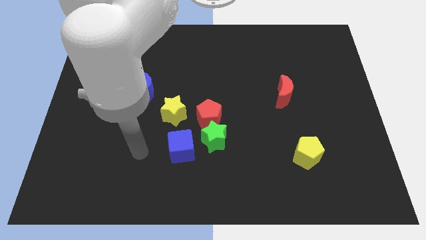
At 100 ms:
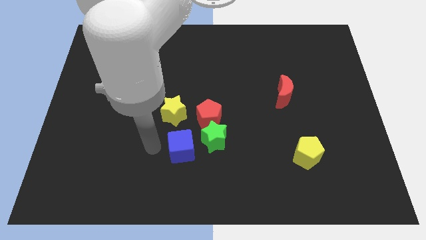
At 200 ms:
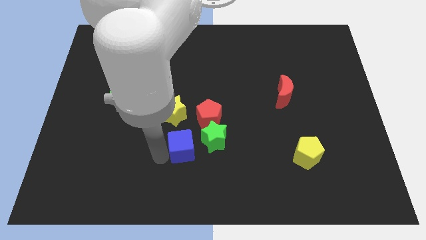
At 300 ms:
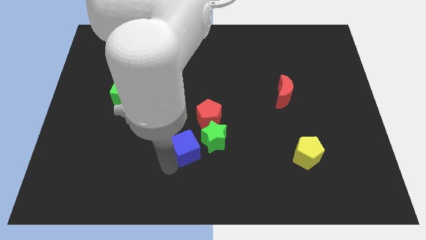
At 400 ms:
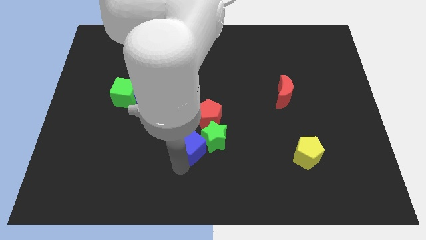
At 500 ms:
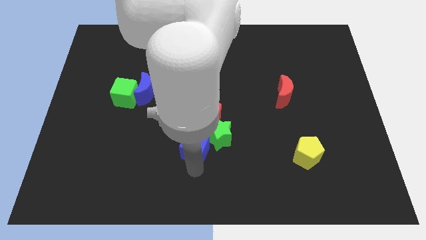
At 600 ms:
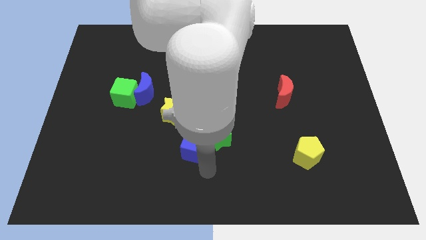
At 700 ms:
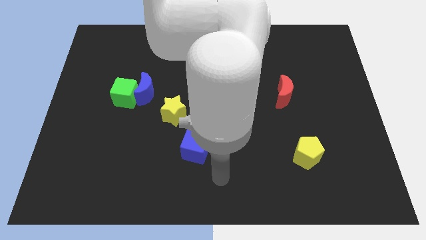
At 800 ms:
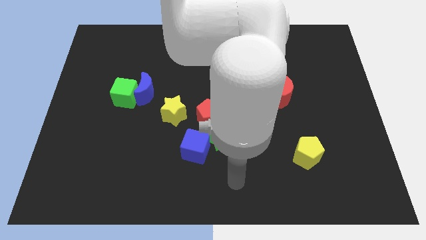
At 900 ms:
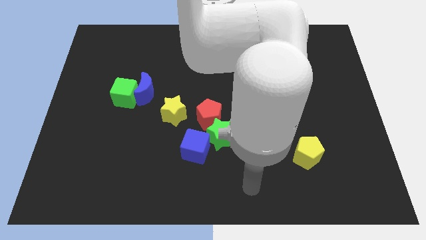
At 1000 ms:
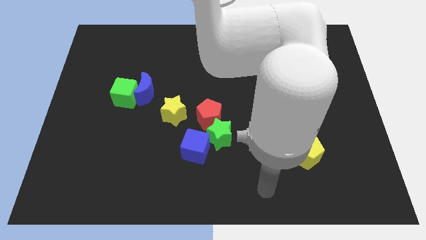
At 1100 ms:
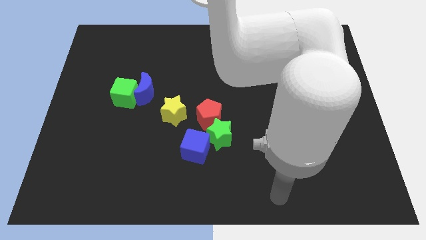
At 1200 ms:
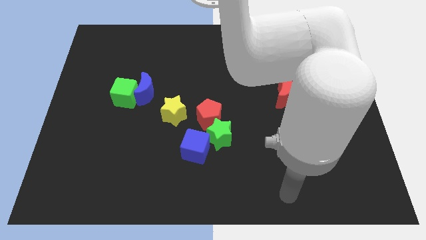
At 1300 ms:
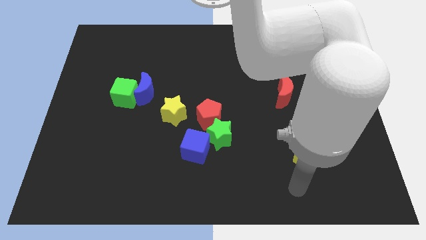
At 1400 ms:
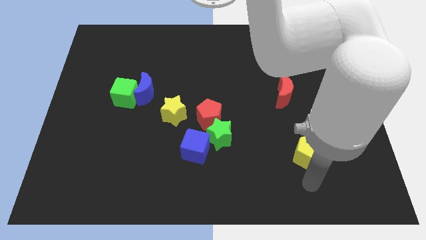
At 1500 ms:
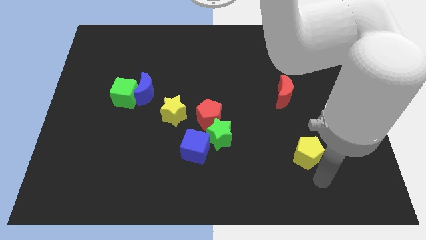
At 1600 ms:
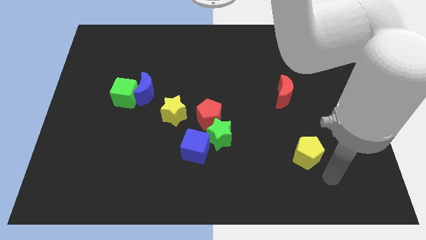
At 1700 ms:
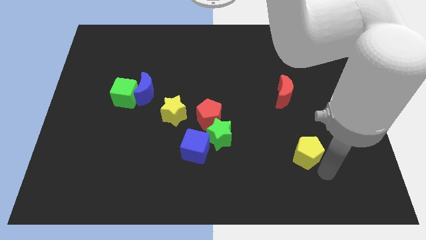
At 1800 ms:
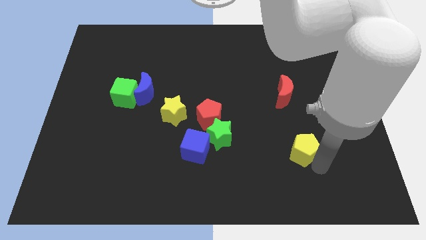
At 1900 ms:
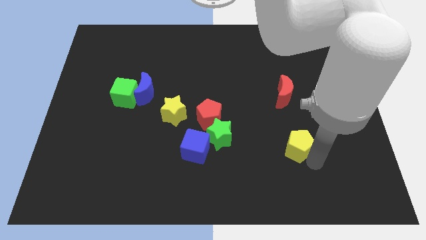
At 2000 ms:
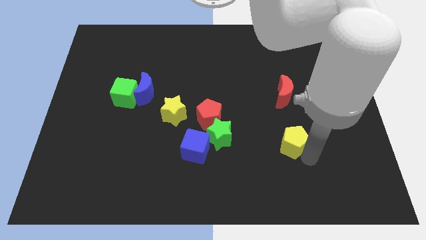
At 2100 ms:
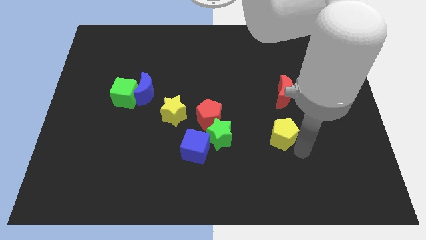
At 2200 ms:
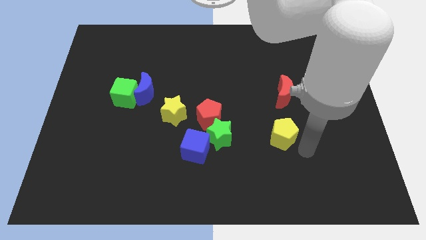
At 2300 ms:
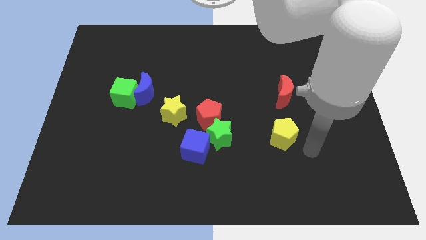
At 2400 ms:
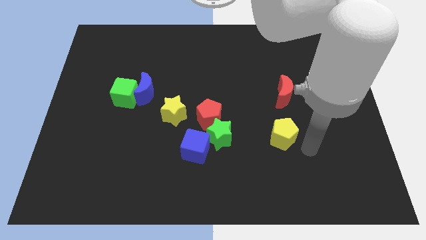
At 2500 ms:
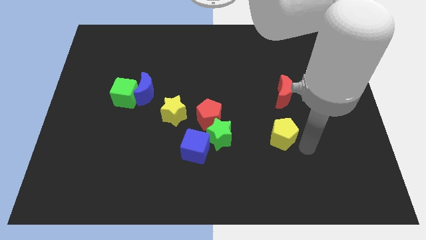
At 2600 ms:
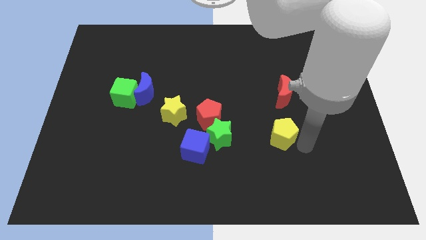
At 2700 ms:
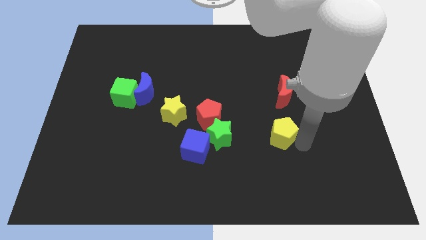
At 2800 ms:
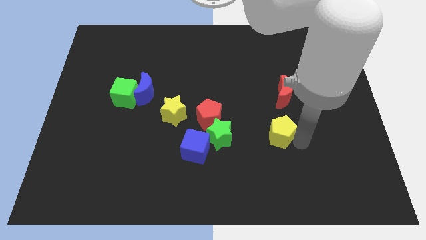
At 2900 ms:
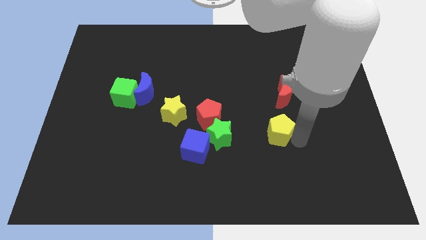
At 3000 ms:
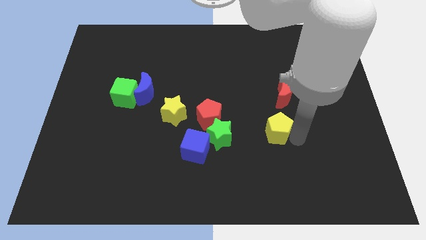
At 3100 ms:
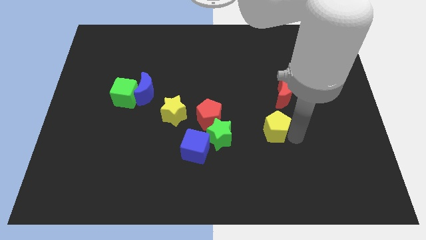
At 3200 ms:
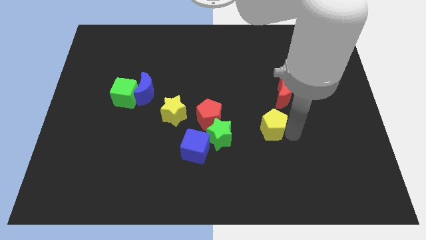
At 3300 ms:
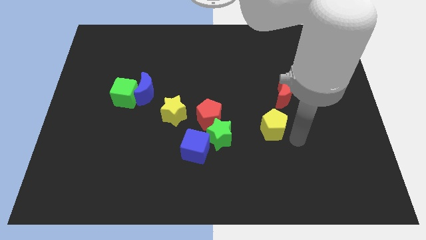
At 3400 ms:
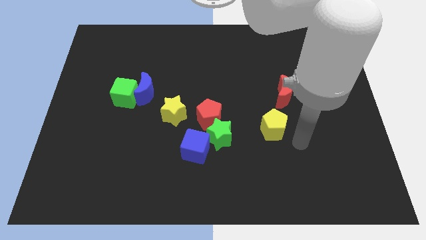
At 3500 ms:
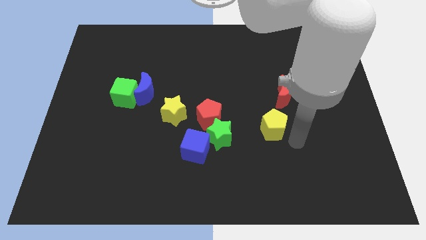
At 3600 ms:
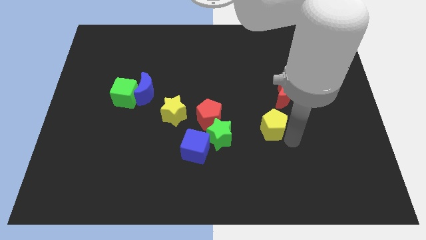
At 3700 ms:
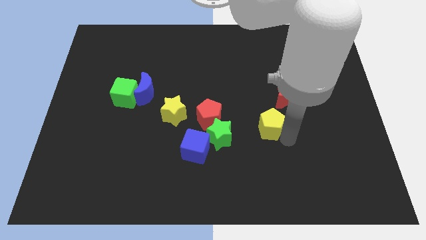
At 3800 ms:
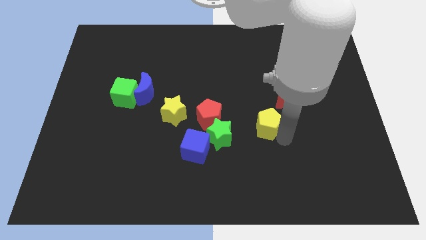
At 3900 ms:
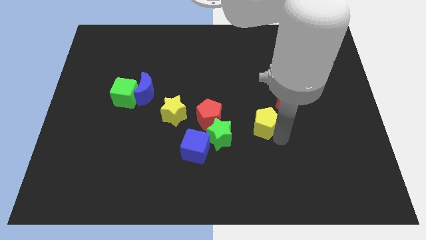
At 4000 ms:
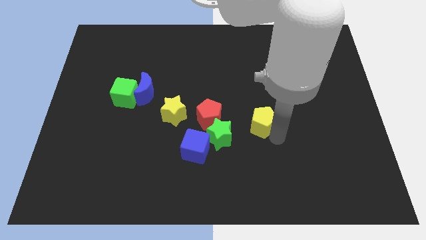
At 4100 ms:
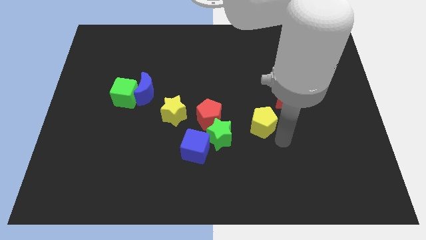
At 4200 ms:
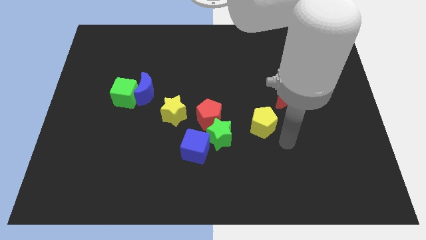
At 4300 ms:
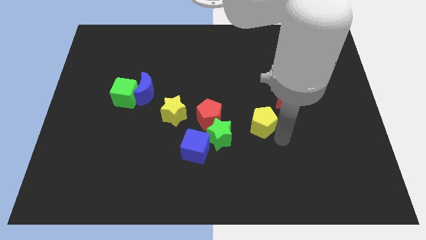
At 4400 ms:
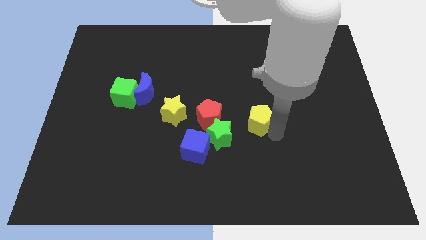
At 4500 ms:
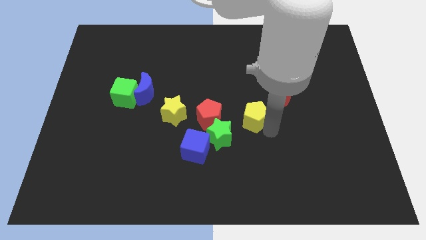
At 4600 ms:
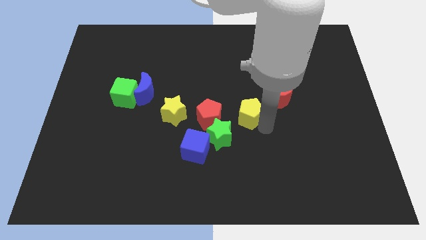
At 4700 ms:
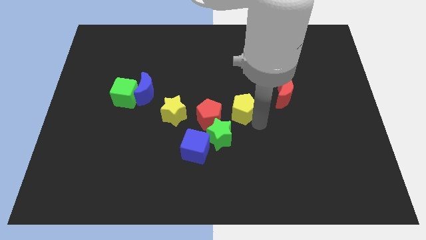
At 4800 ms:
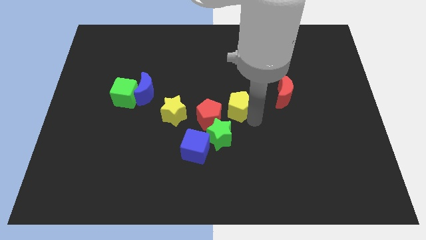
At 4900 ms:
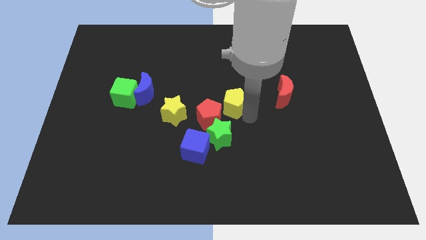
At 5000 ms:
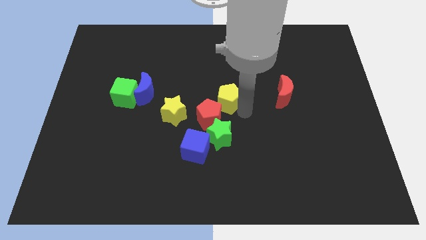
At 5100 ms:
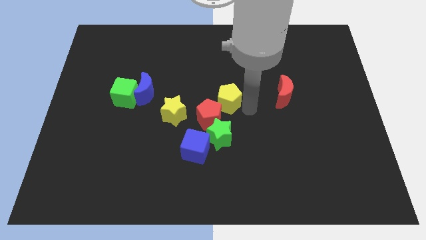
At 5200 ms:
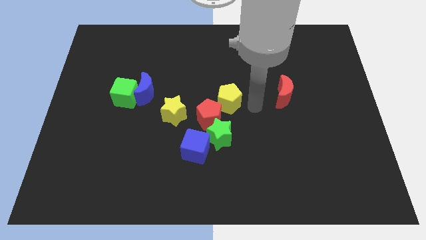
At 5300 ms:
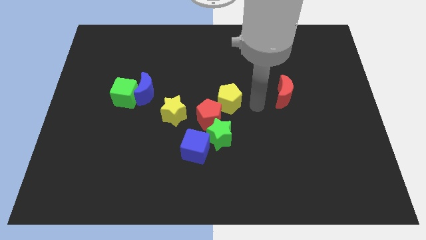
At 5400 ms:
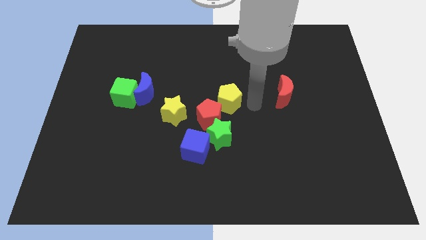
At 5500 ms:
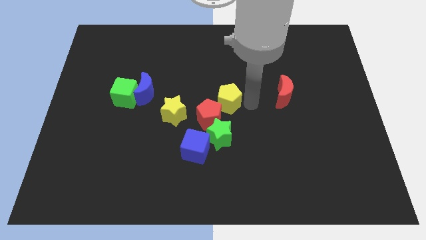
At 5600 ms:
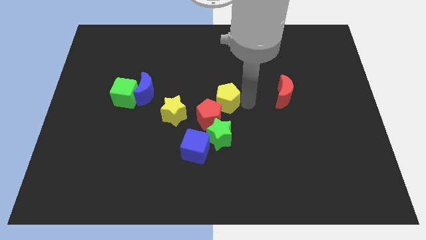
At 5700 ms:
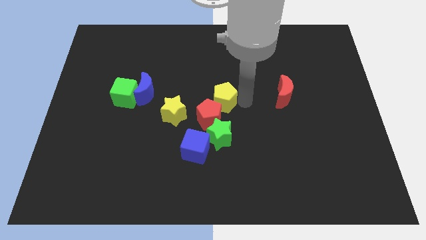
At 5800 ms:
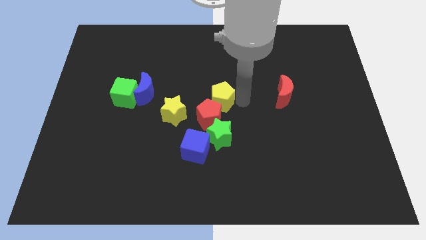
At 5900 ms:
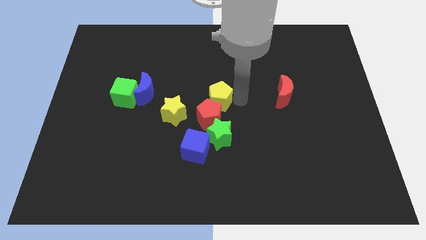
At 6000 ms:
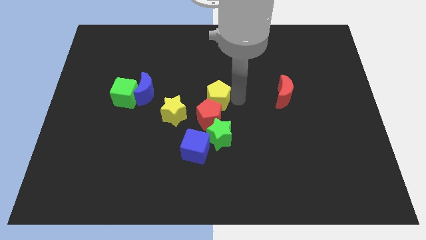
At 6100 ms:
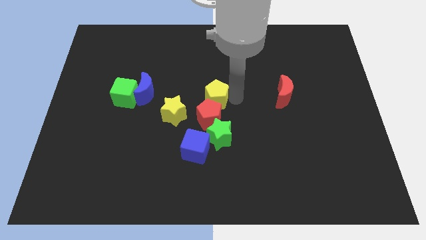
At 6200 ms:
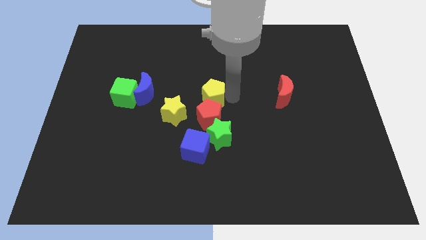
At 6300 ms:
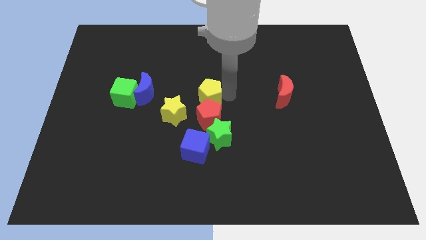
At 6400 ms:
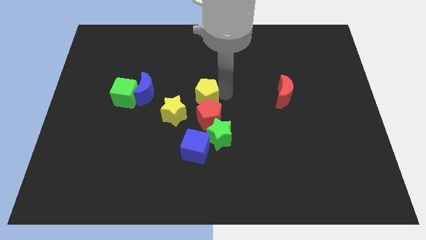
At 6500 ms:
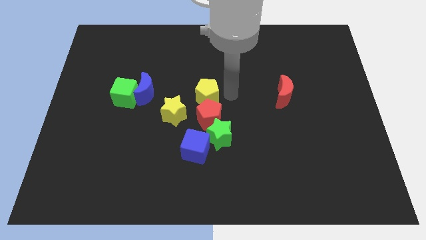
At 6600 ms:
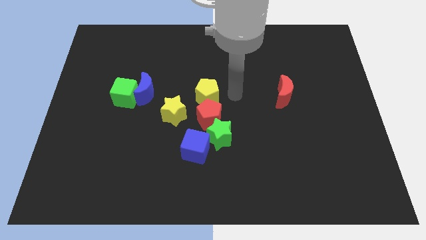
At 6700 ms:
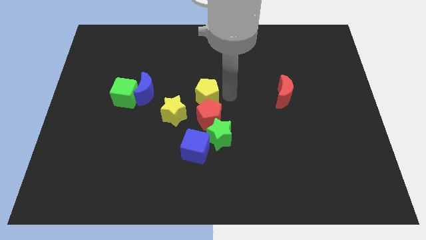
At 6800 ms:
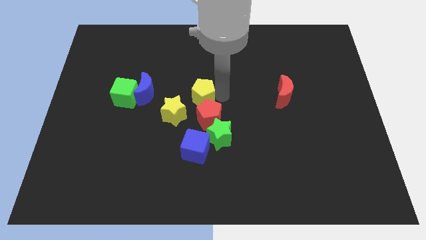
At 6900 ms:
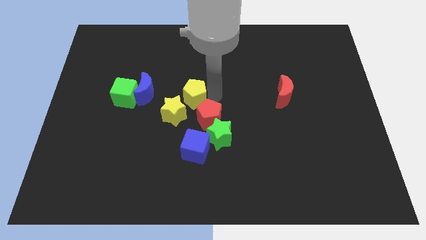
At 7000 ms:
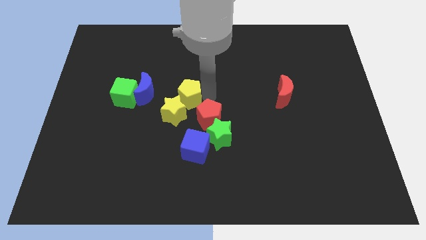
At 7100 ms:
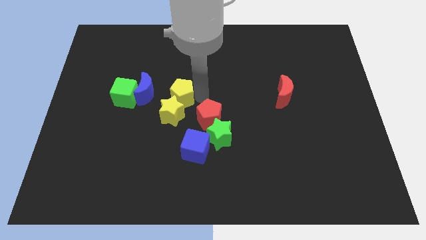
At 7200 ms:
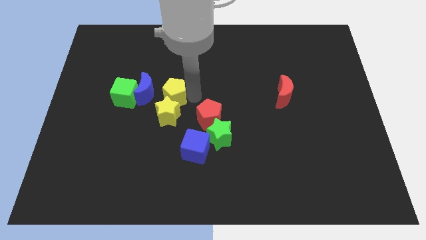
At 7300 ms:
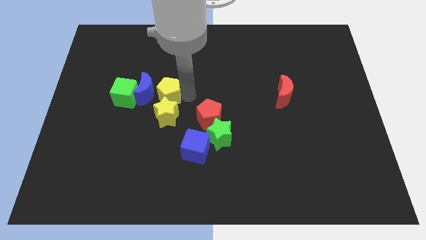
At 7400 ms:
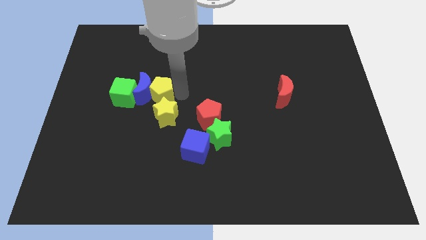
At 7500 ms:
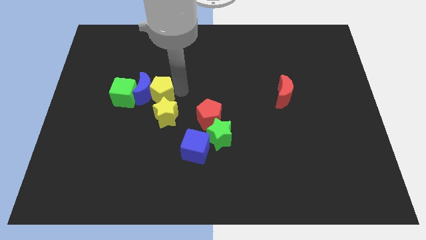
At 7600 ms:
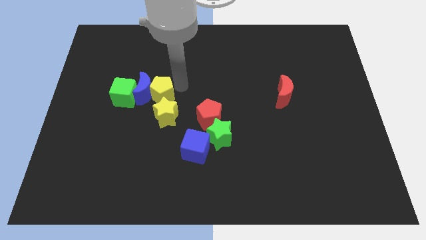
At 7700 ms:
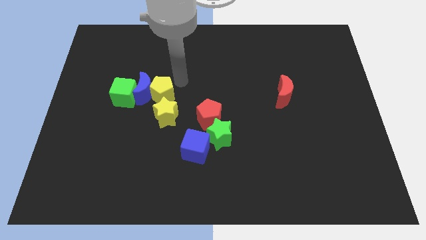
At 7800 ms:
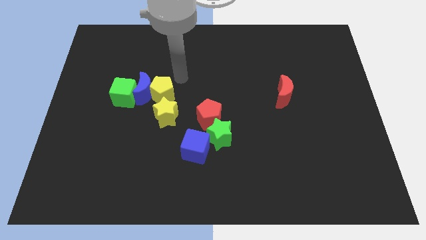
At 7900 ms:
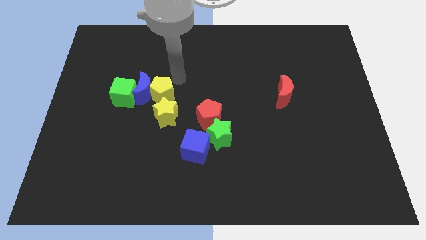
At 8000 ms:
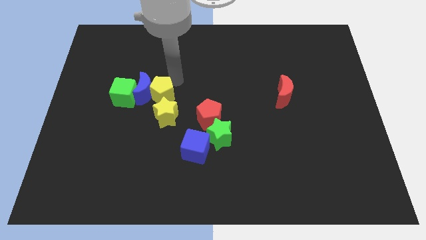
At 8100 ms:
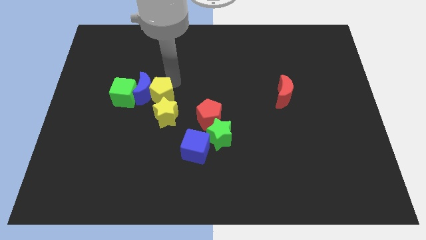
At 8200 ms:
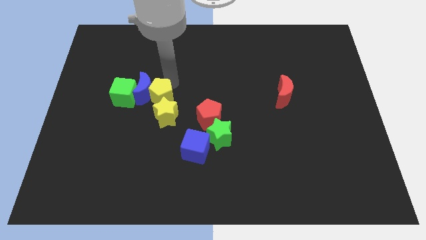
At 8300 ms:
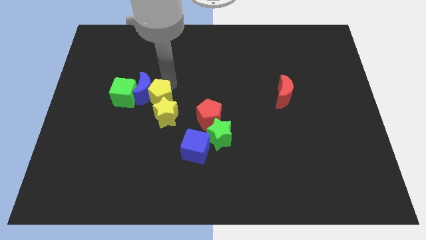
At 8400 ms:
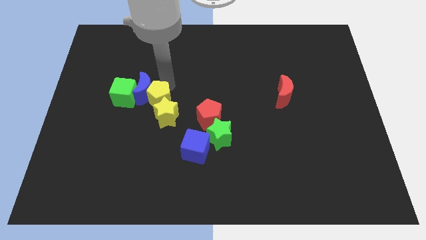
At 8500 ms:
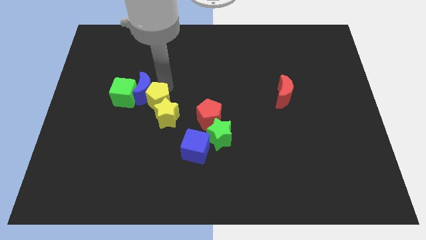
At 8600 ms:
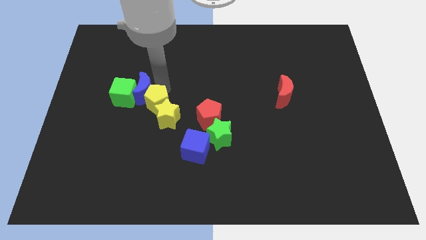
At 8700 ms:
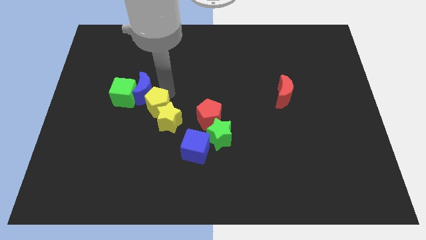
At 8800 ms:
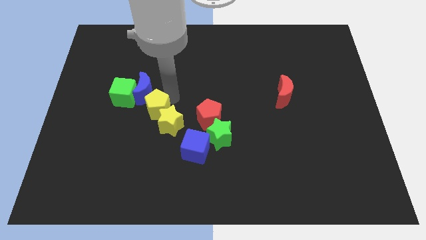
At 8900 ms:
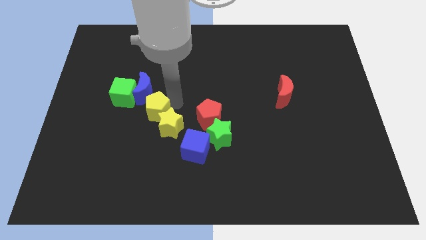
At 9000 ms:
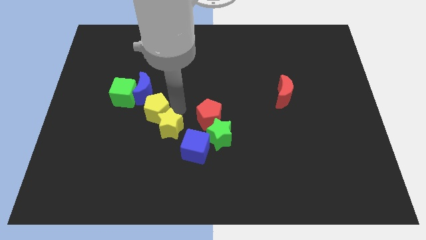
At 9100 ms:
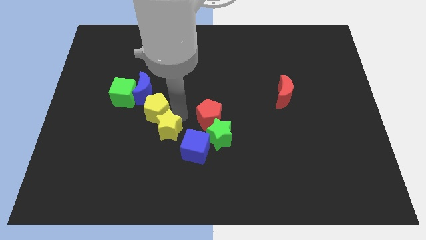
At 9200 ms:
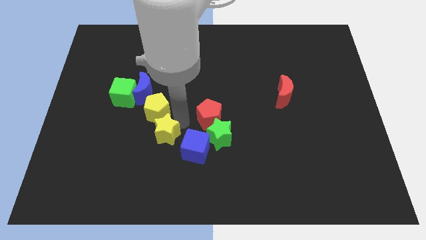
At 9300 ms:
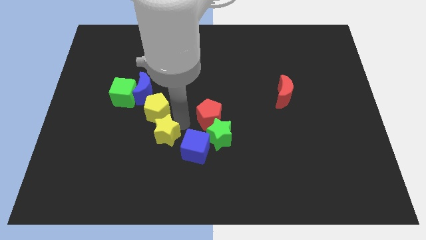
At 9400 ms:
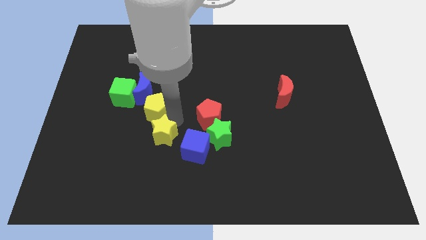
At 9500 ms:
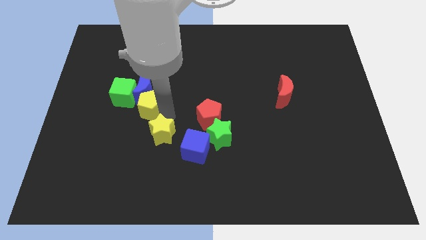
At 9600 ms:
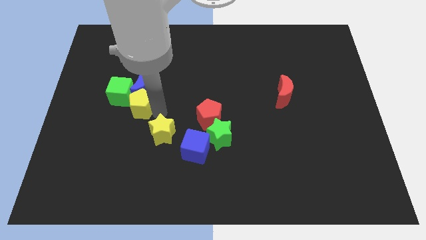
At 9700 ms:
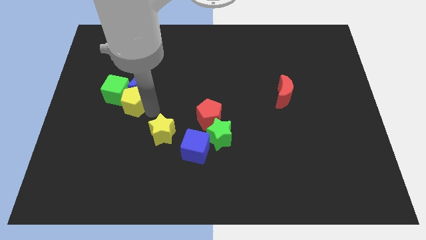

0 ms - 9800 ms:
slide the yellow pentagon to the green cube
